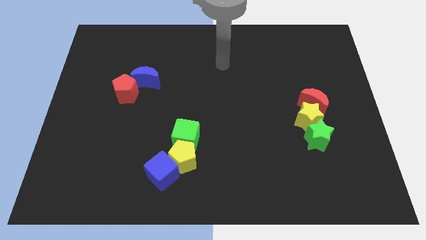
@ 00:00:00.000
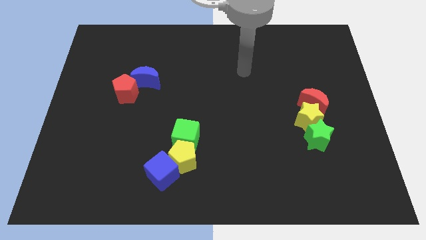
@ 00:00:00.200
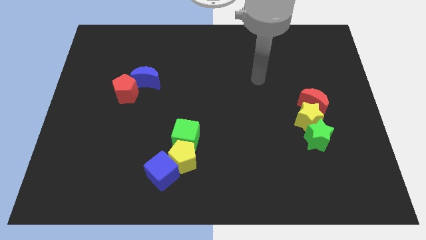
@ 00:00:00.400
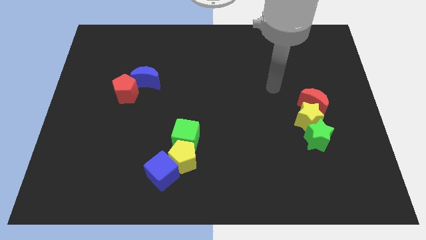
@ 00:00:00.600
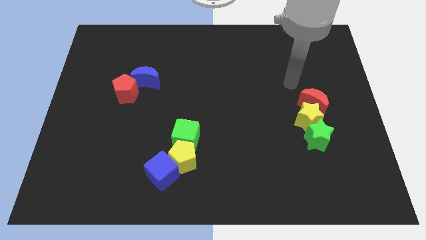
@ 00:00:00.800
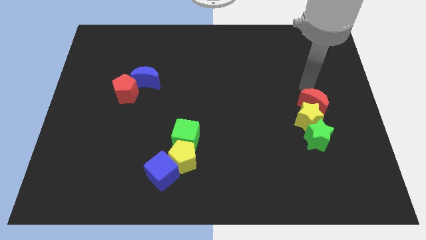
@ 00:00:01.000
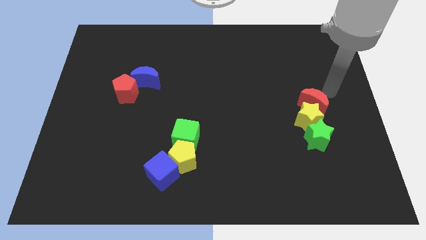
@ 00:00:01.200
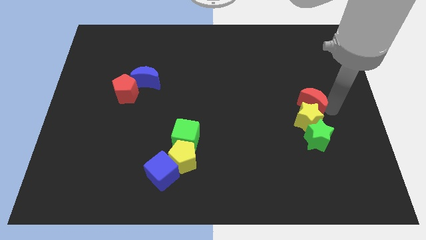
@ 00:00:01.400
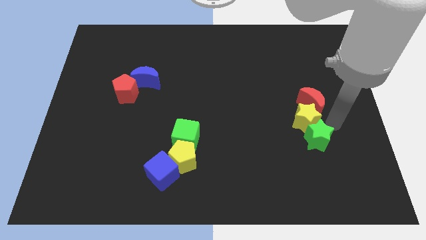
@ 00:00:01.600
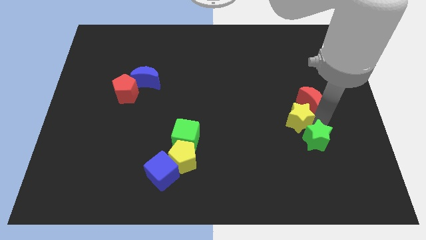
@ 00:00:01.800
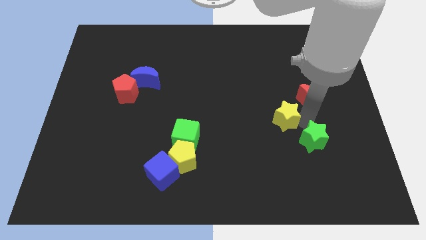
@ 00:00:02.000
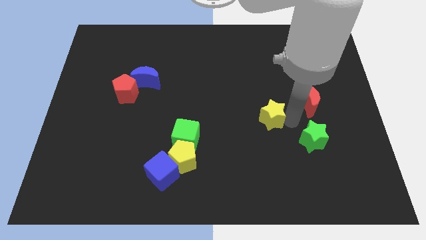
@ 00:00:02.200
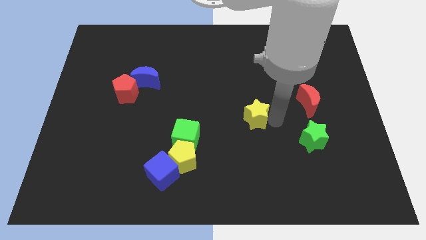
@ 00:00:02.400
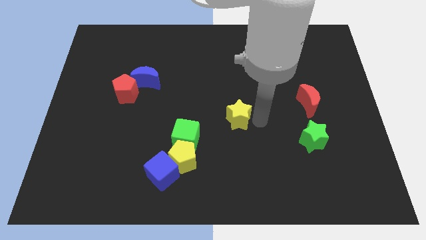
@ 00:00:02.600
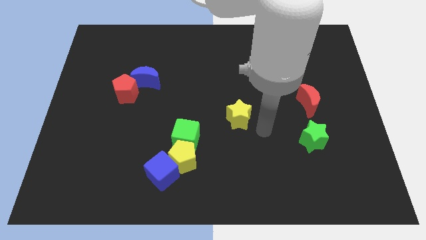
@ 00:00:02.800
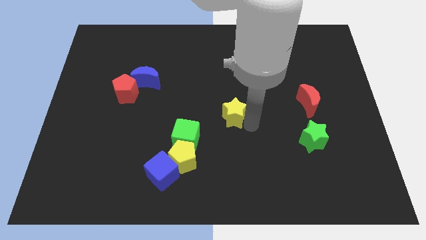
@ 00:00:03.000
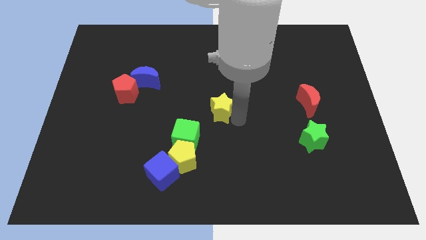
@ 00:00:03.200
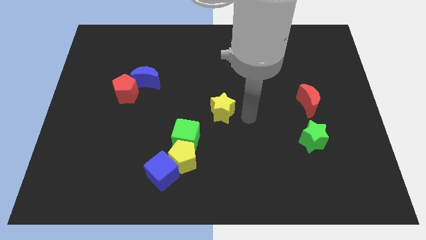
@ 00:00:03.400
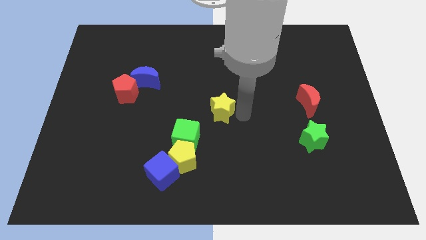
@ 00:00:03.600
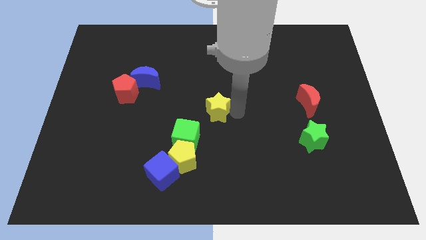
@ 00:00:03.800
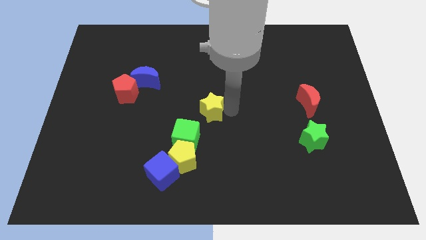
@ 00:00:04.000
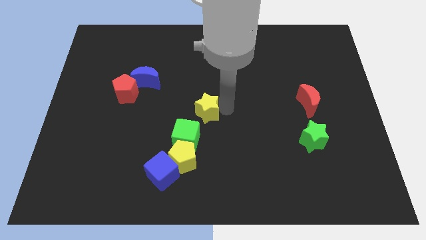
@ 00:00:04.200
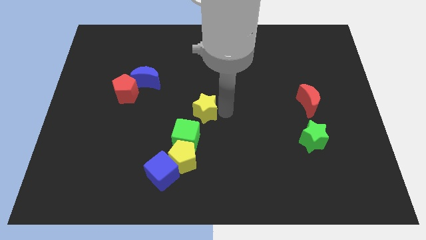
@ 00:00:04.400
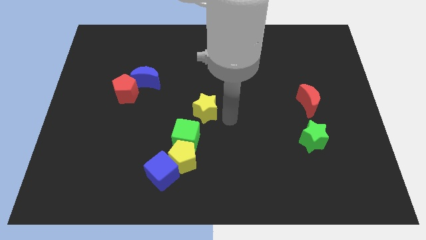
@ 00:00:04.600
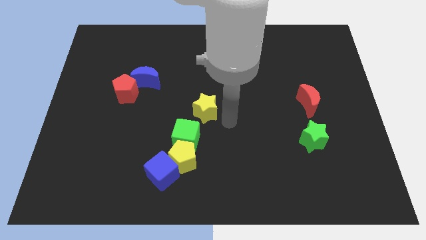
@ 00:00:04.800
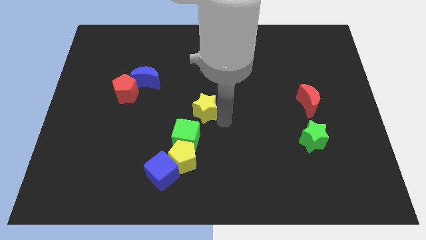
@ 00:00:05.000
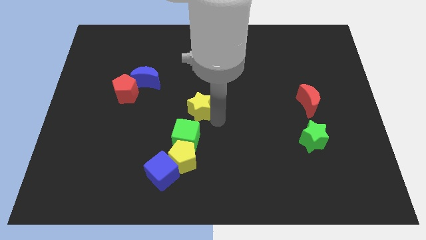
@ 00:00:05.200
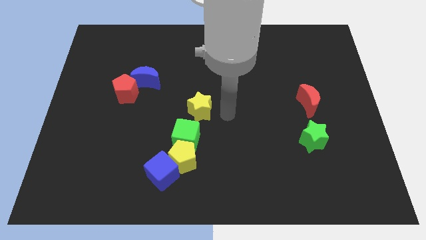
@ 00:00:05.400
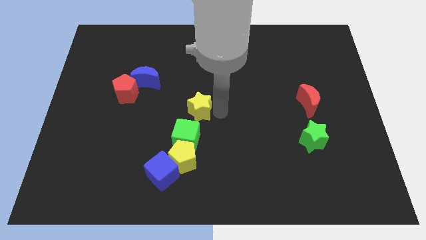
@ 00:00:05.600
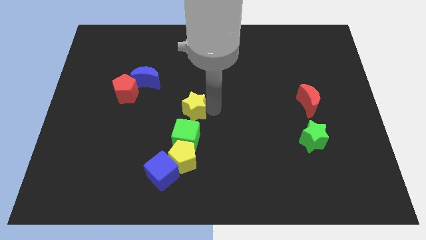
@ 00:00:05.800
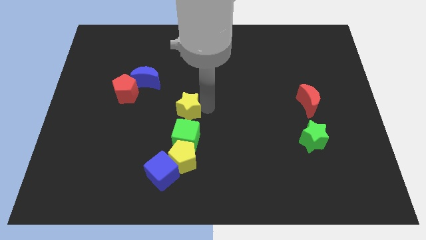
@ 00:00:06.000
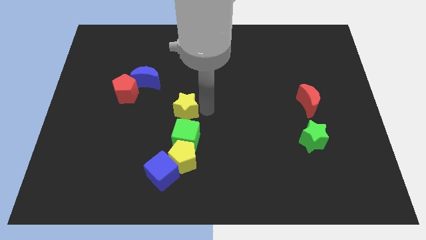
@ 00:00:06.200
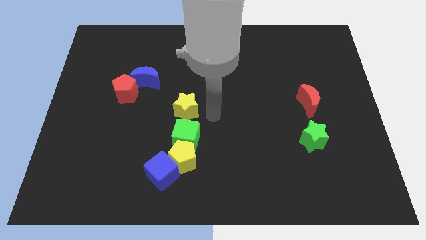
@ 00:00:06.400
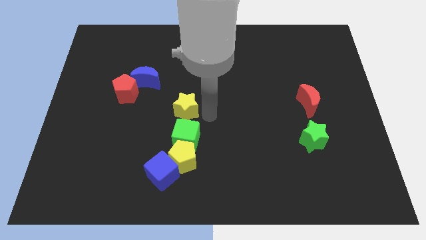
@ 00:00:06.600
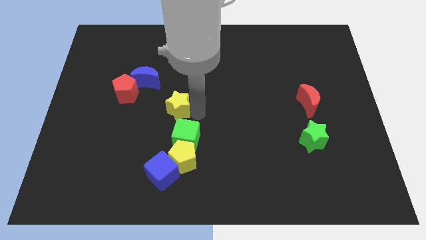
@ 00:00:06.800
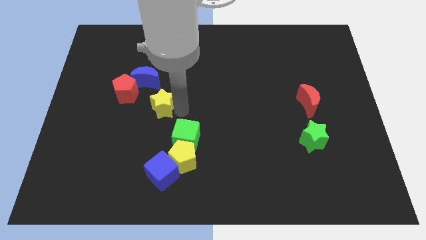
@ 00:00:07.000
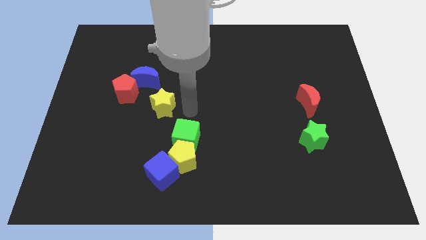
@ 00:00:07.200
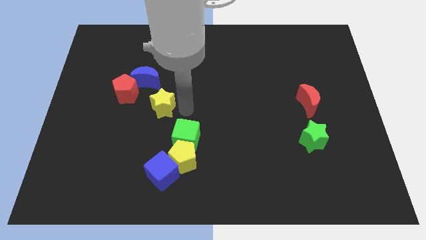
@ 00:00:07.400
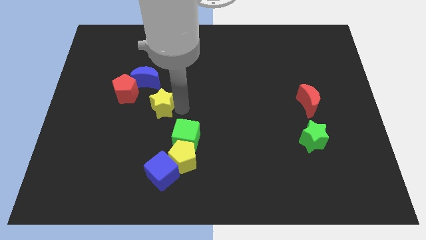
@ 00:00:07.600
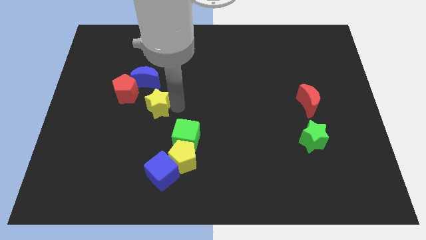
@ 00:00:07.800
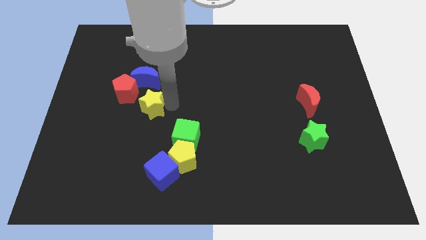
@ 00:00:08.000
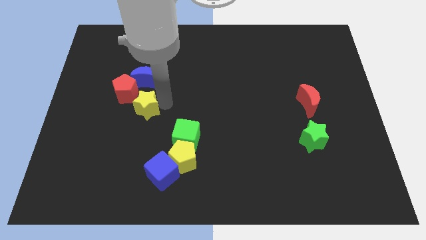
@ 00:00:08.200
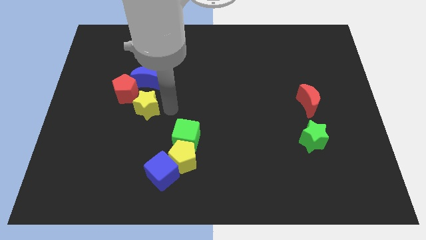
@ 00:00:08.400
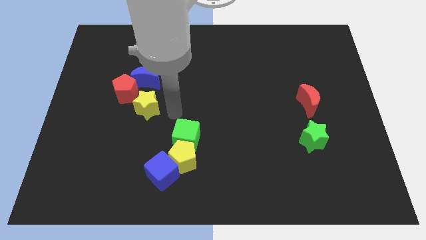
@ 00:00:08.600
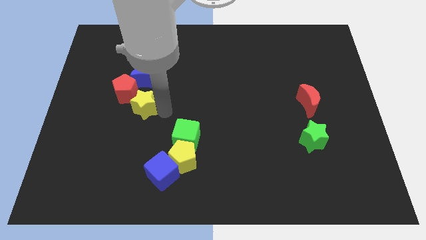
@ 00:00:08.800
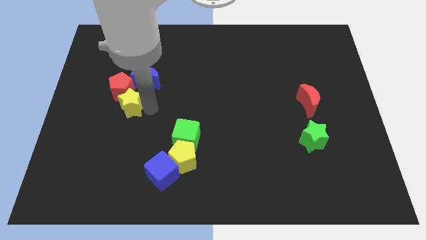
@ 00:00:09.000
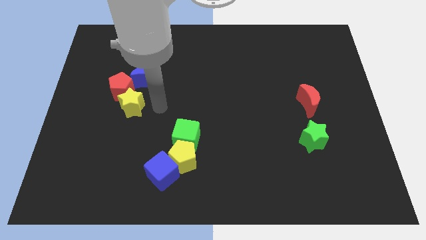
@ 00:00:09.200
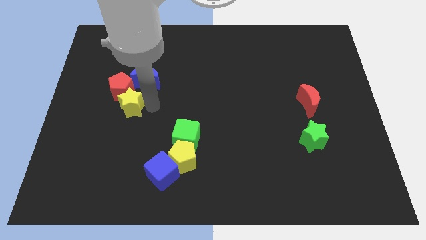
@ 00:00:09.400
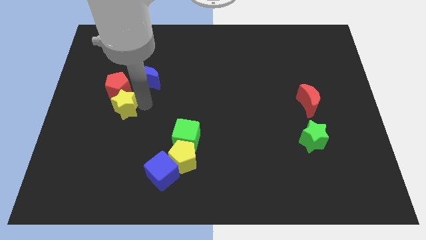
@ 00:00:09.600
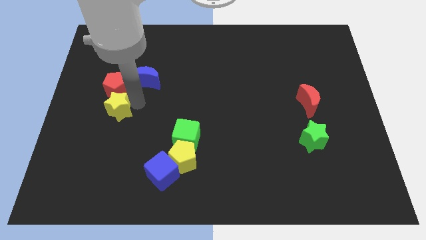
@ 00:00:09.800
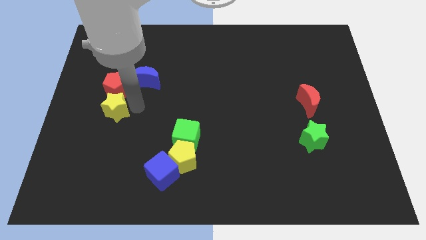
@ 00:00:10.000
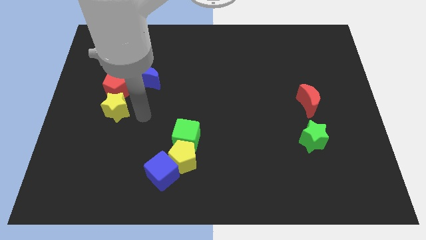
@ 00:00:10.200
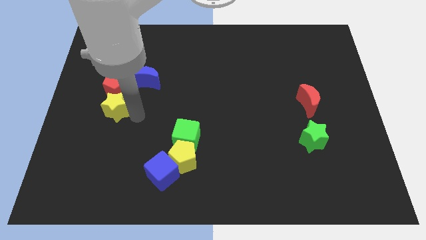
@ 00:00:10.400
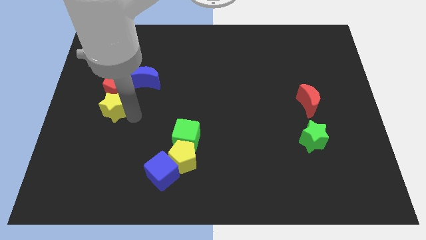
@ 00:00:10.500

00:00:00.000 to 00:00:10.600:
move the yellow star to the bottom left side of the red pentagon

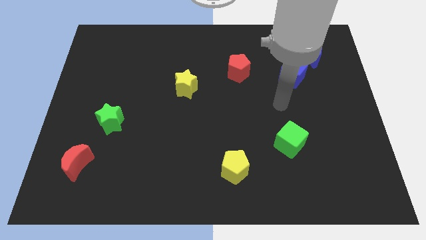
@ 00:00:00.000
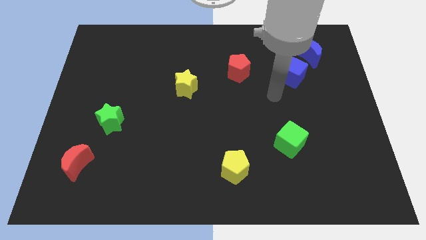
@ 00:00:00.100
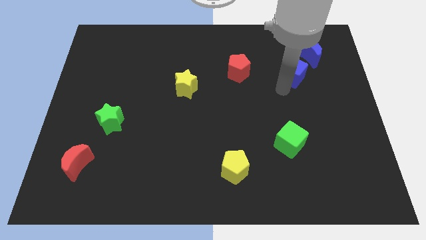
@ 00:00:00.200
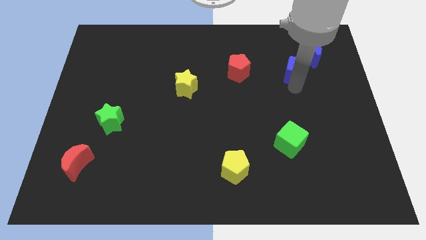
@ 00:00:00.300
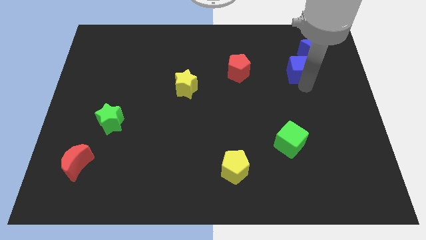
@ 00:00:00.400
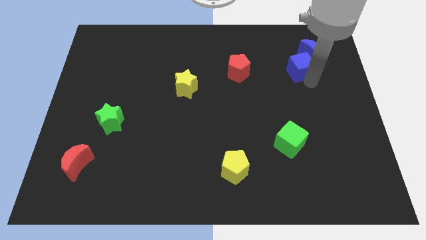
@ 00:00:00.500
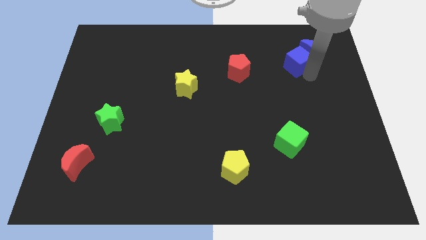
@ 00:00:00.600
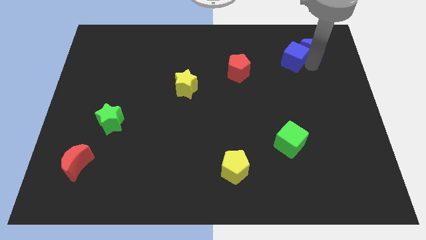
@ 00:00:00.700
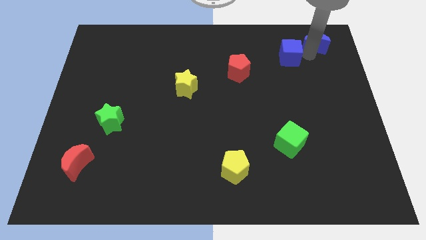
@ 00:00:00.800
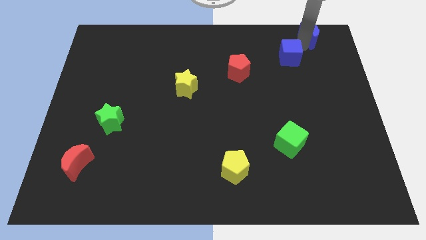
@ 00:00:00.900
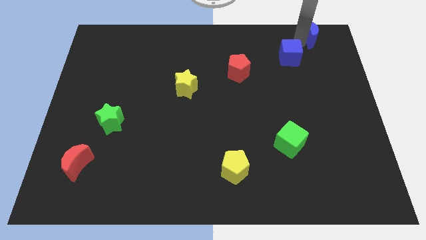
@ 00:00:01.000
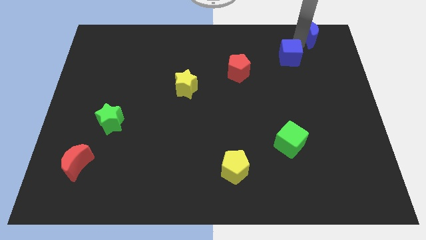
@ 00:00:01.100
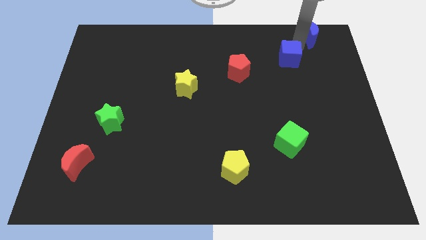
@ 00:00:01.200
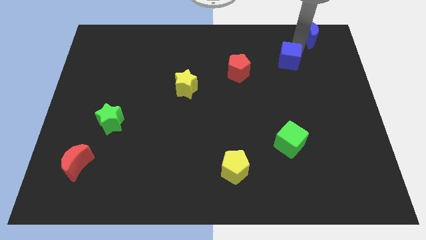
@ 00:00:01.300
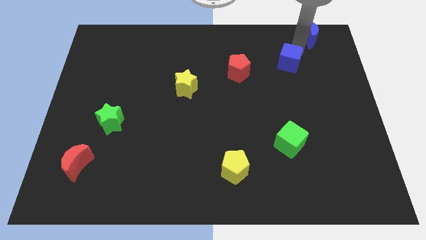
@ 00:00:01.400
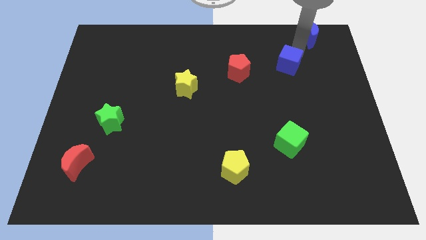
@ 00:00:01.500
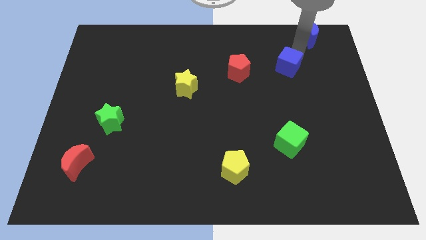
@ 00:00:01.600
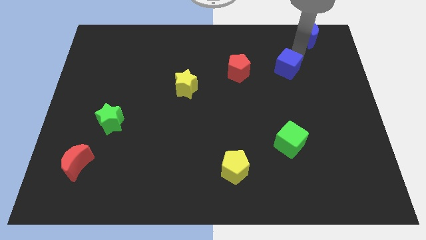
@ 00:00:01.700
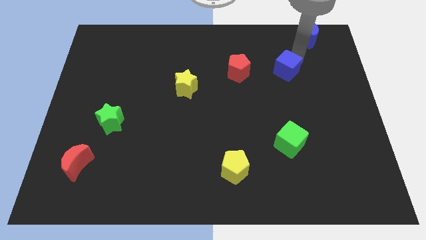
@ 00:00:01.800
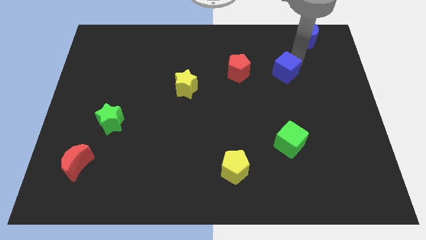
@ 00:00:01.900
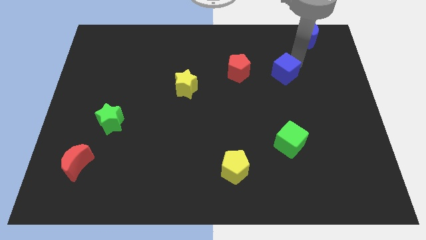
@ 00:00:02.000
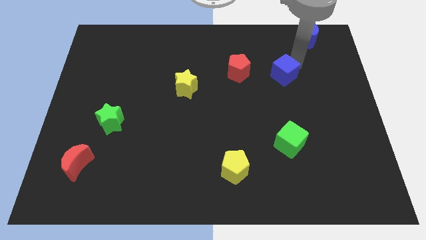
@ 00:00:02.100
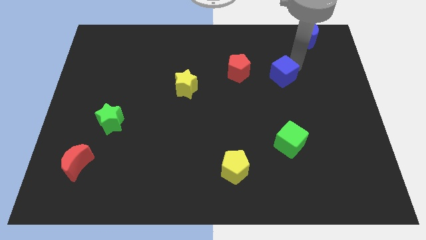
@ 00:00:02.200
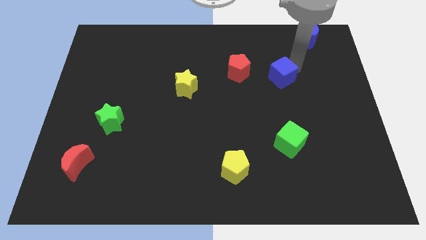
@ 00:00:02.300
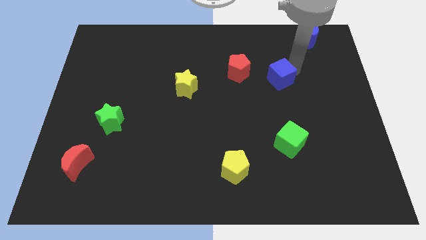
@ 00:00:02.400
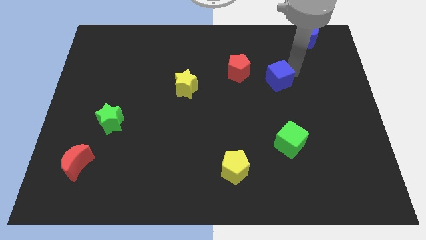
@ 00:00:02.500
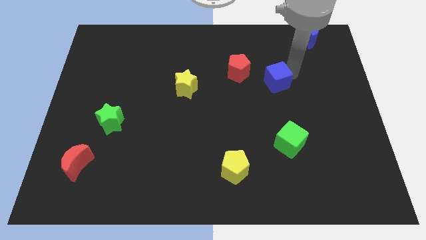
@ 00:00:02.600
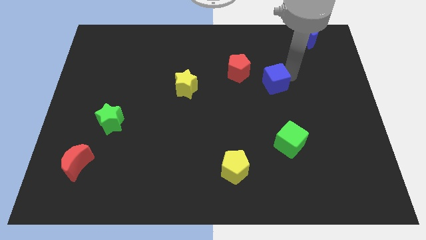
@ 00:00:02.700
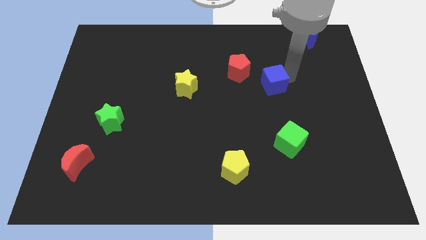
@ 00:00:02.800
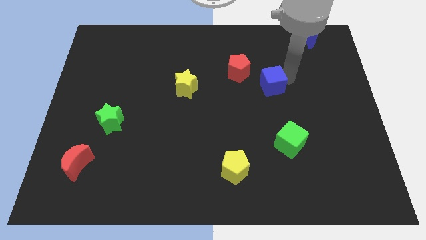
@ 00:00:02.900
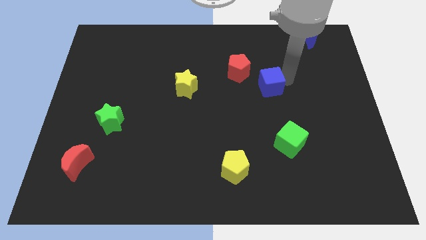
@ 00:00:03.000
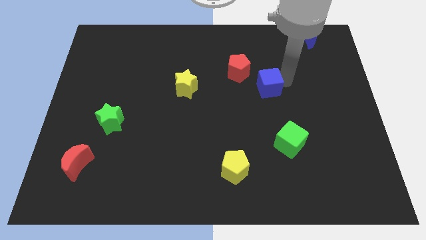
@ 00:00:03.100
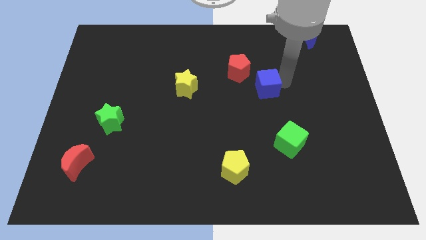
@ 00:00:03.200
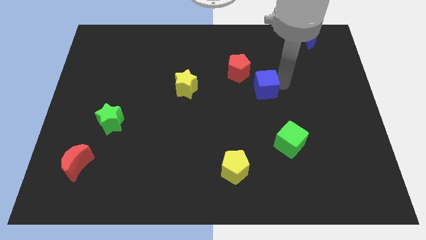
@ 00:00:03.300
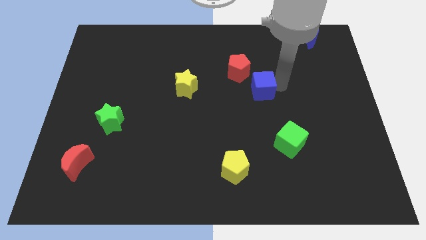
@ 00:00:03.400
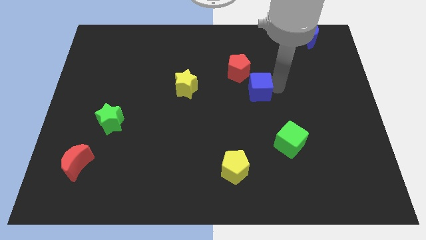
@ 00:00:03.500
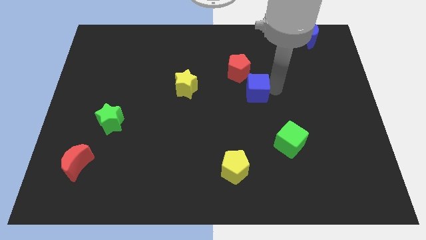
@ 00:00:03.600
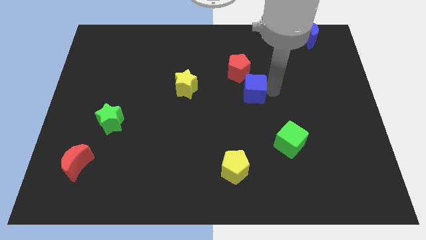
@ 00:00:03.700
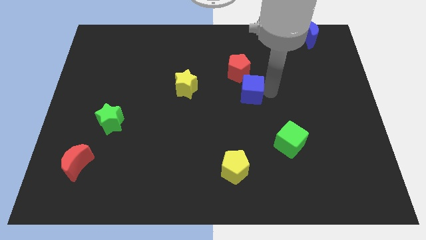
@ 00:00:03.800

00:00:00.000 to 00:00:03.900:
move the blue cube just right of the yellow star
